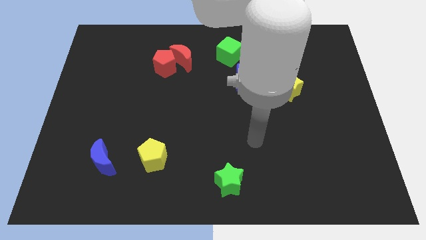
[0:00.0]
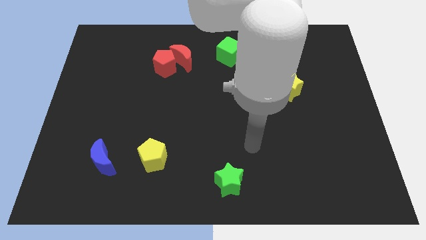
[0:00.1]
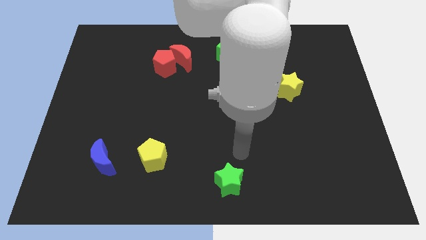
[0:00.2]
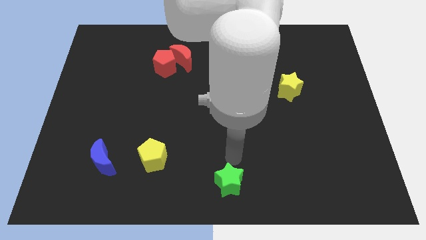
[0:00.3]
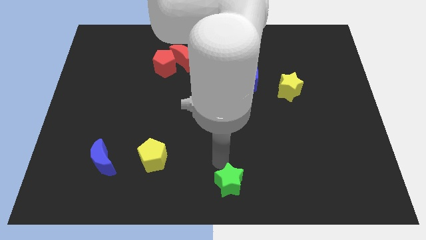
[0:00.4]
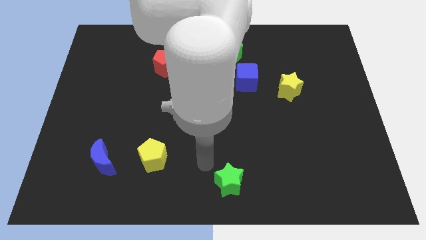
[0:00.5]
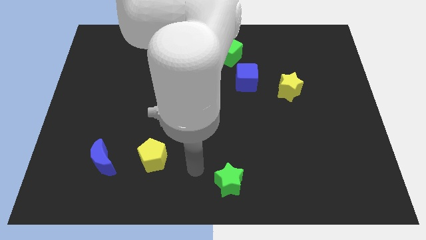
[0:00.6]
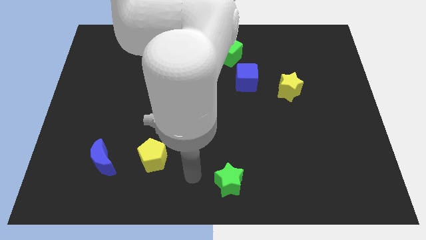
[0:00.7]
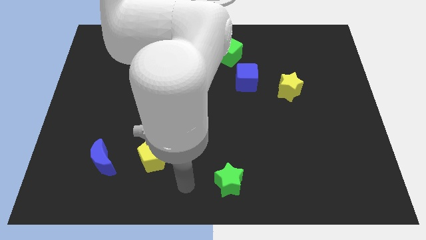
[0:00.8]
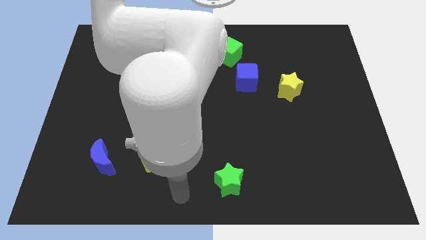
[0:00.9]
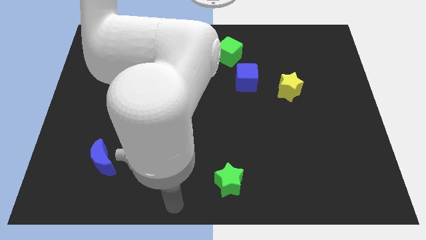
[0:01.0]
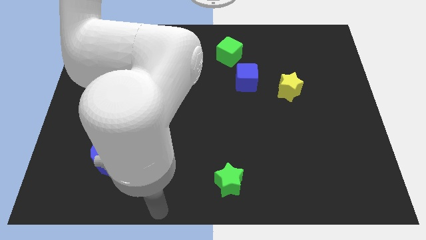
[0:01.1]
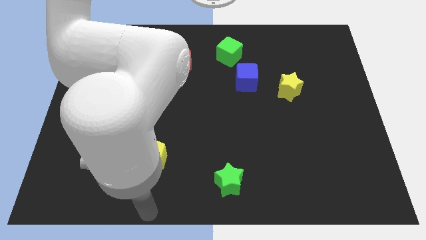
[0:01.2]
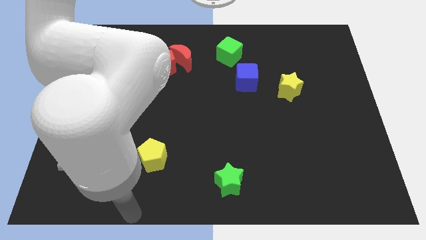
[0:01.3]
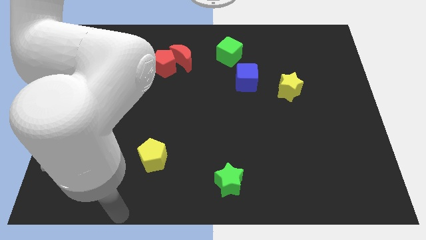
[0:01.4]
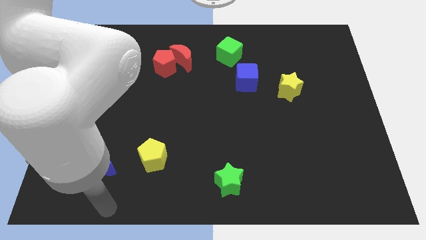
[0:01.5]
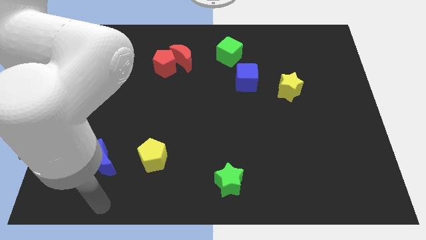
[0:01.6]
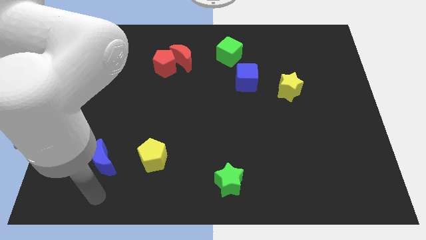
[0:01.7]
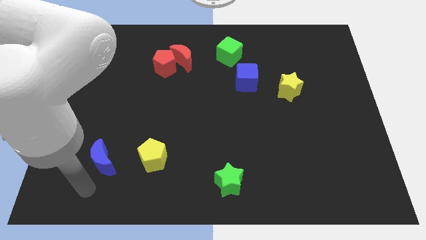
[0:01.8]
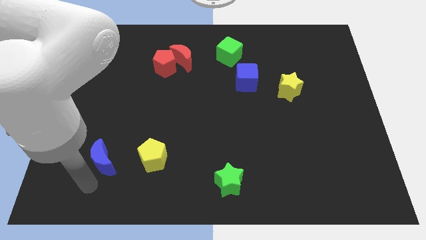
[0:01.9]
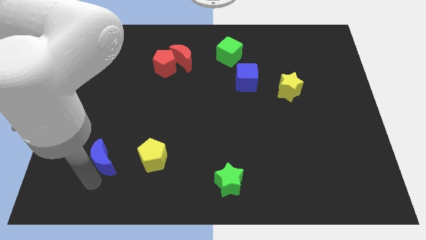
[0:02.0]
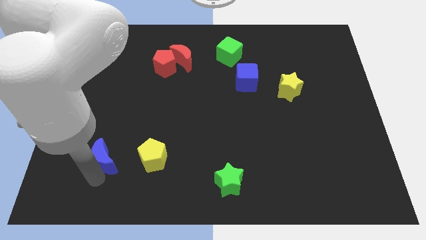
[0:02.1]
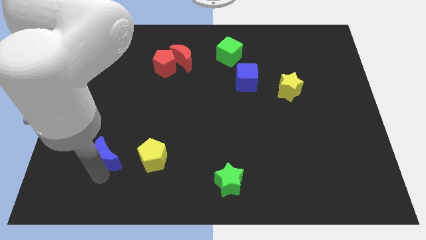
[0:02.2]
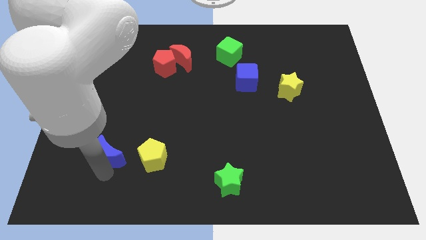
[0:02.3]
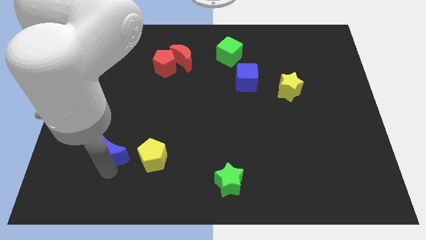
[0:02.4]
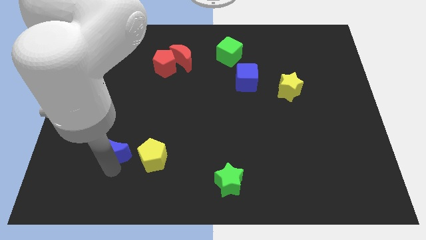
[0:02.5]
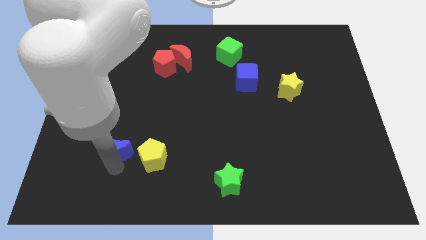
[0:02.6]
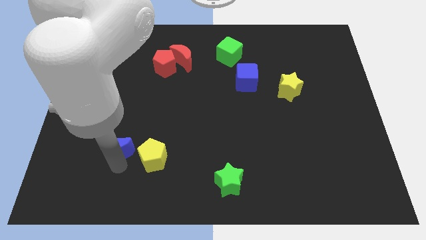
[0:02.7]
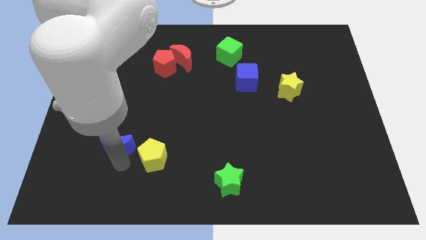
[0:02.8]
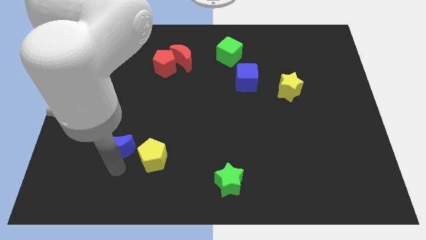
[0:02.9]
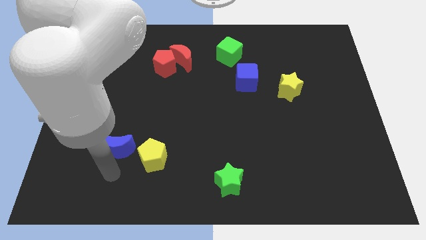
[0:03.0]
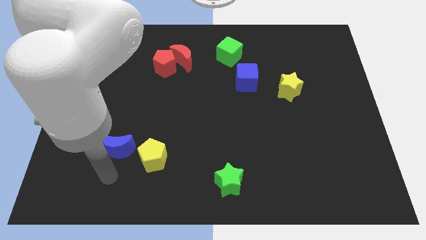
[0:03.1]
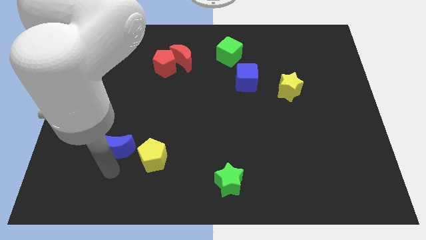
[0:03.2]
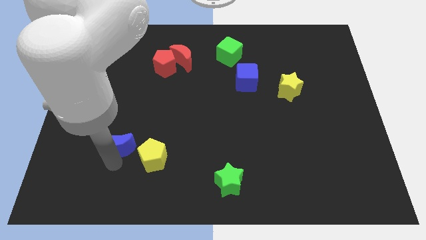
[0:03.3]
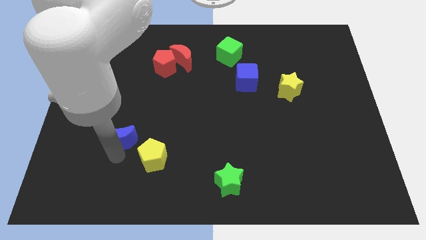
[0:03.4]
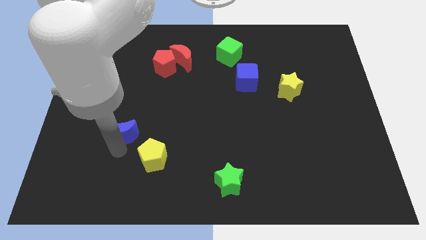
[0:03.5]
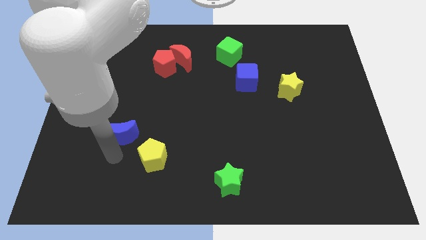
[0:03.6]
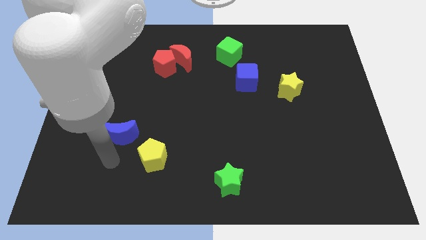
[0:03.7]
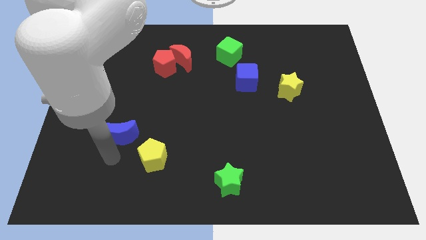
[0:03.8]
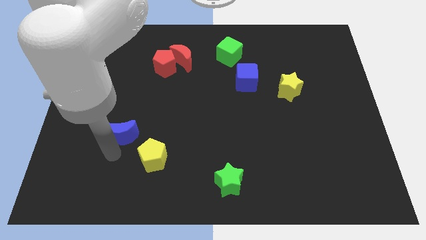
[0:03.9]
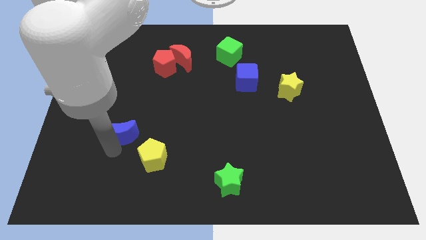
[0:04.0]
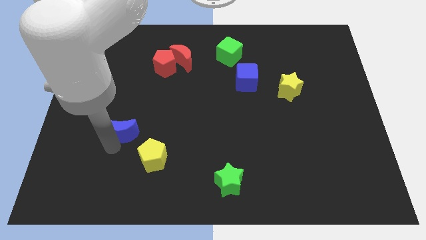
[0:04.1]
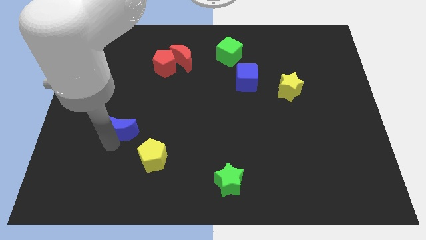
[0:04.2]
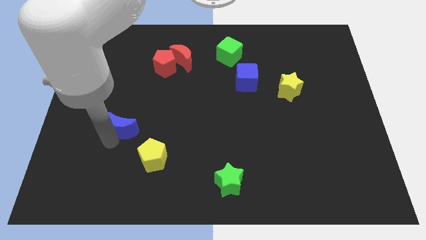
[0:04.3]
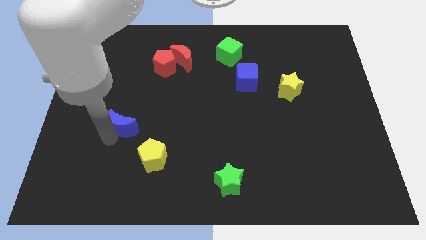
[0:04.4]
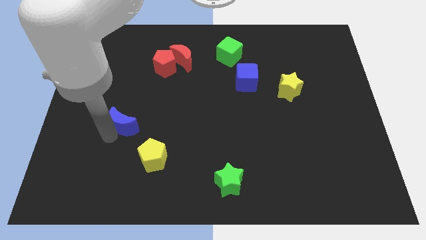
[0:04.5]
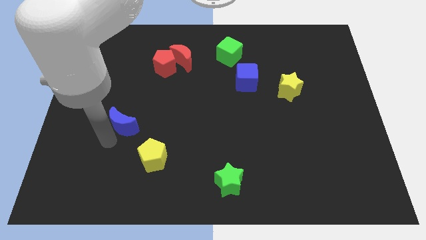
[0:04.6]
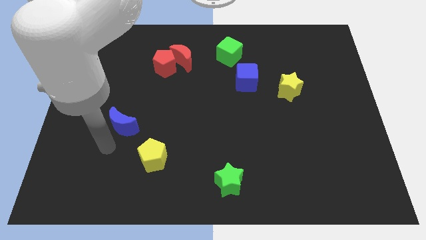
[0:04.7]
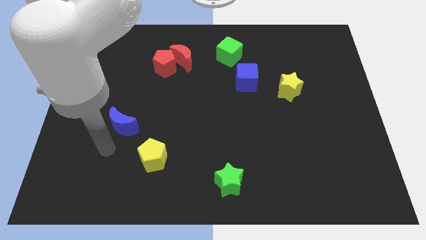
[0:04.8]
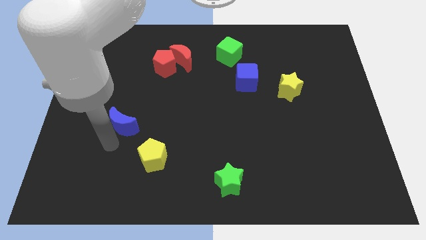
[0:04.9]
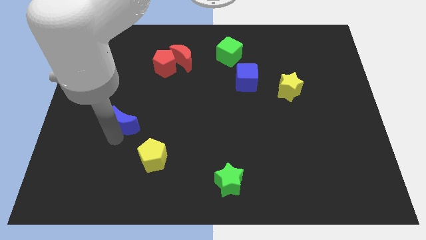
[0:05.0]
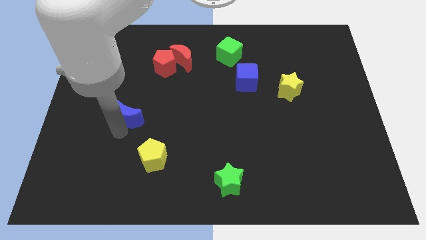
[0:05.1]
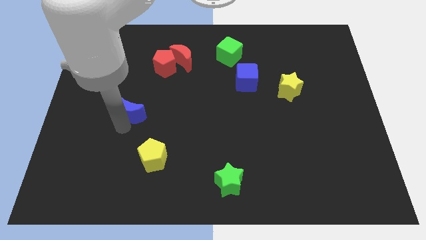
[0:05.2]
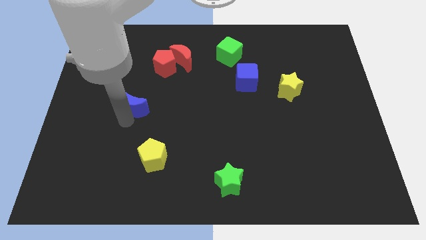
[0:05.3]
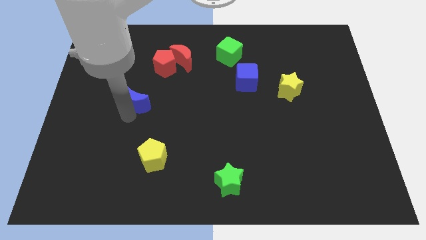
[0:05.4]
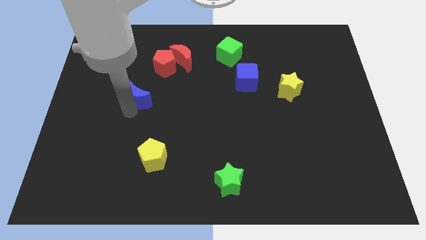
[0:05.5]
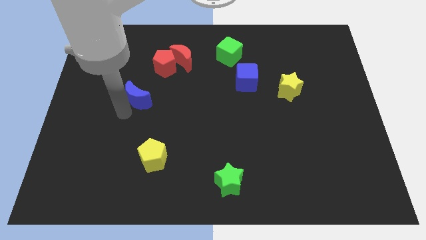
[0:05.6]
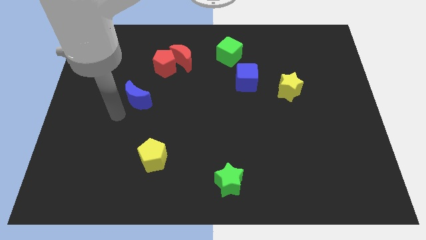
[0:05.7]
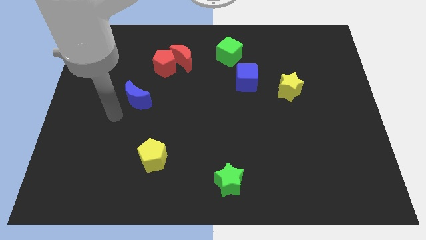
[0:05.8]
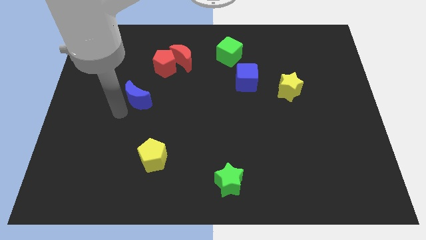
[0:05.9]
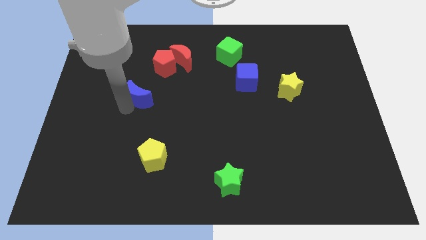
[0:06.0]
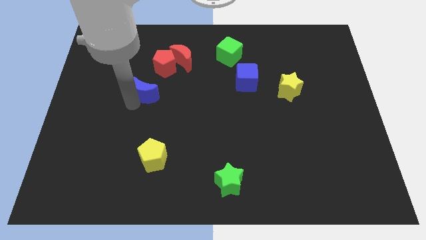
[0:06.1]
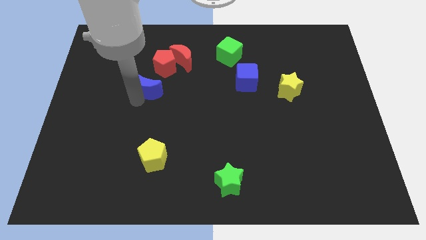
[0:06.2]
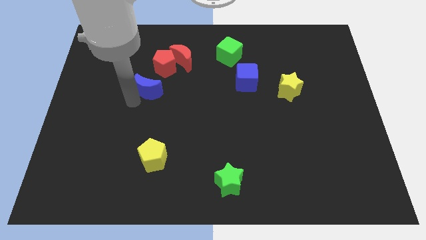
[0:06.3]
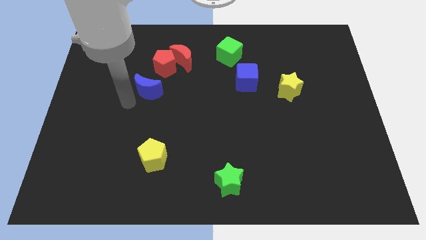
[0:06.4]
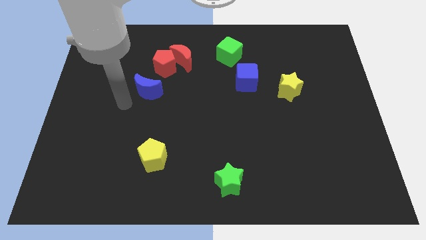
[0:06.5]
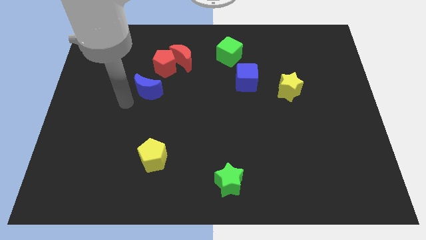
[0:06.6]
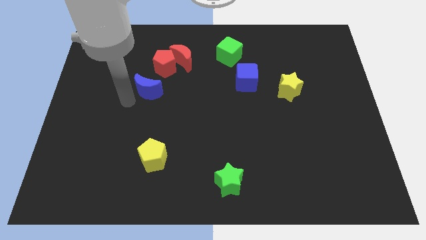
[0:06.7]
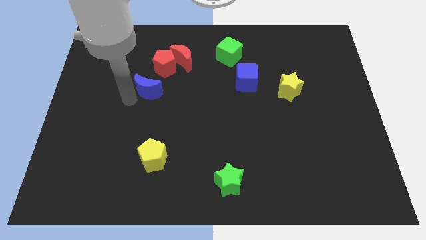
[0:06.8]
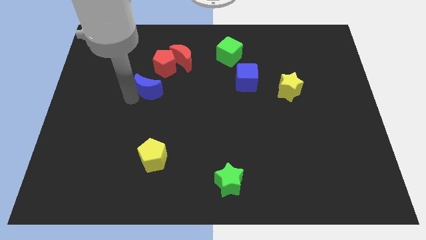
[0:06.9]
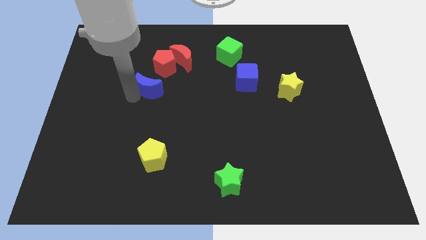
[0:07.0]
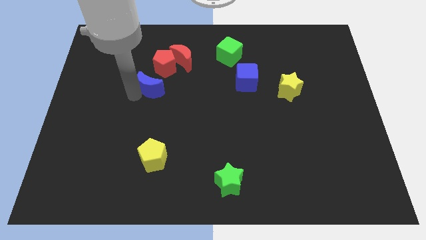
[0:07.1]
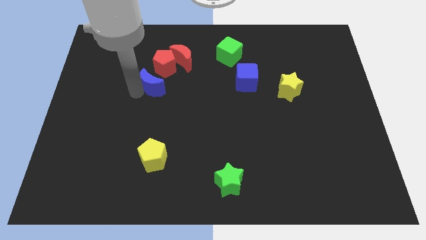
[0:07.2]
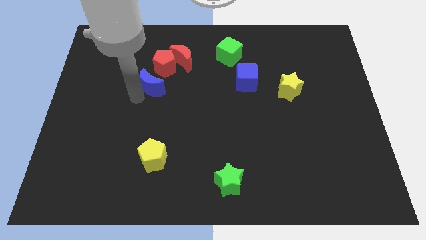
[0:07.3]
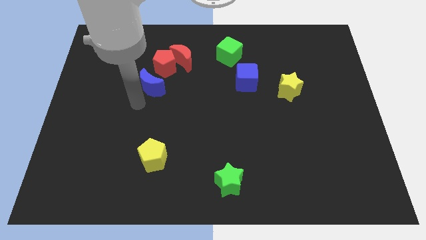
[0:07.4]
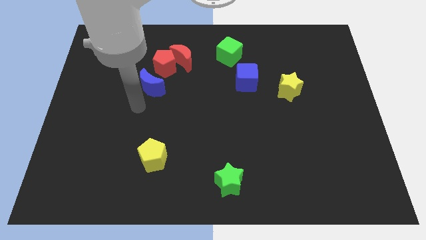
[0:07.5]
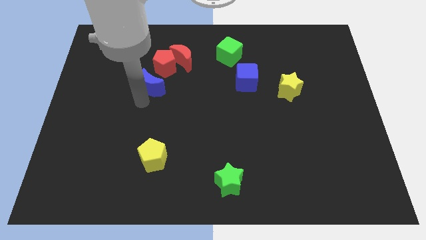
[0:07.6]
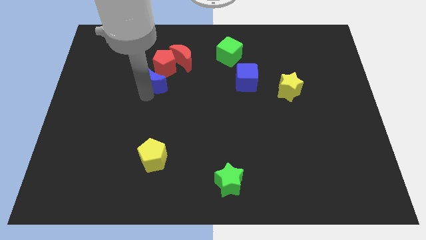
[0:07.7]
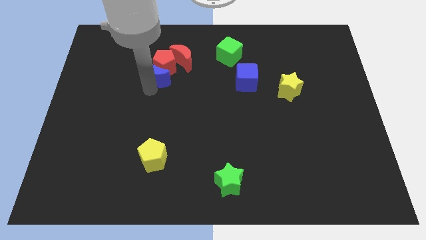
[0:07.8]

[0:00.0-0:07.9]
slide the blue moon towards the red pentagon
